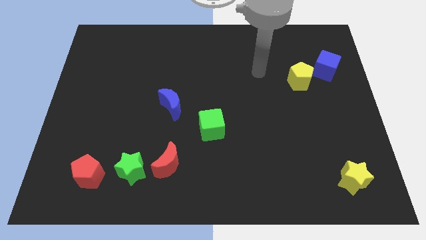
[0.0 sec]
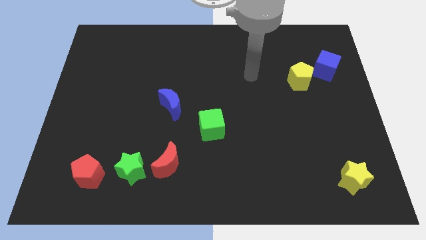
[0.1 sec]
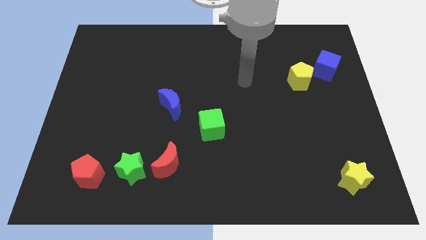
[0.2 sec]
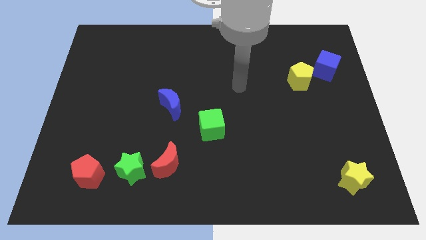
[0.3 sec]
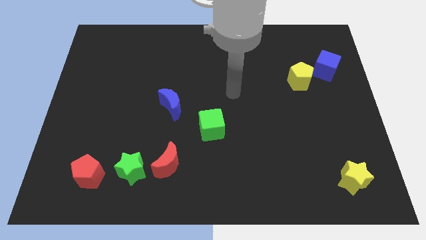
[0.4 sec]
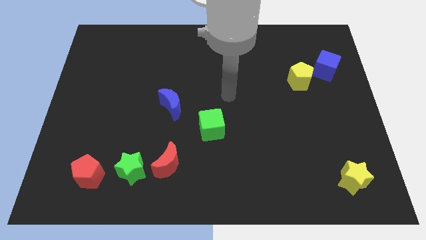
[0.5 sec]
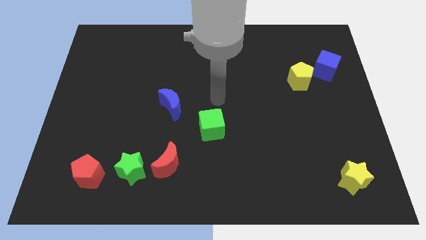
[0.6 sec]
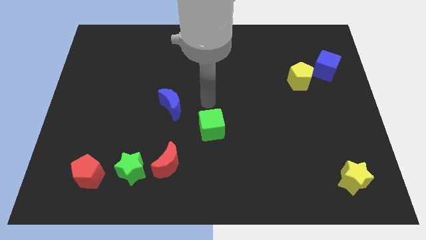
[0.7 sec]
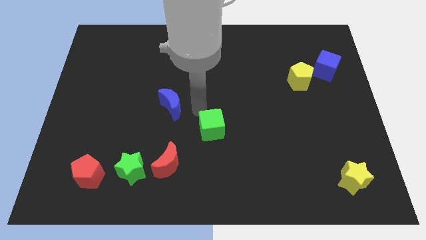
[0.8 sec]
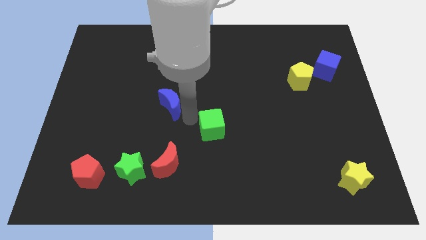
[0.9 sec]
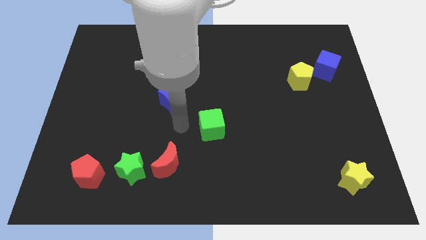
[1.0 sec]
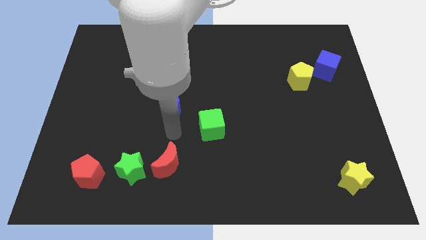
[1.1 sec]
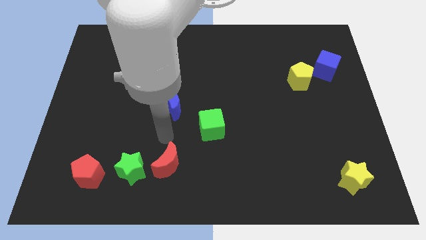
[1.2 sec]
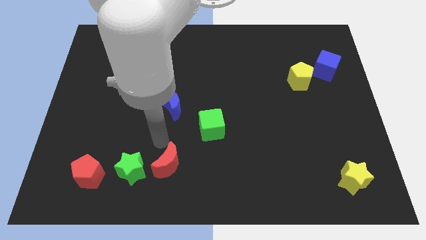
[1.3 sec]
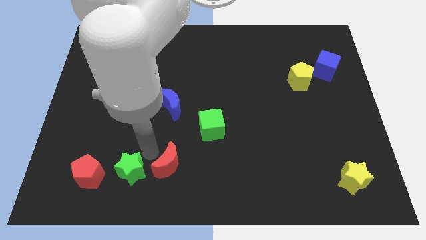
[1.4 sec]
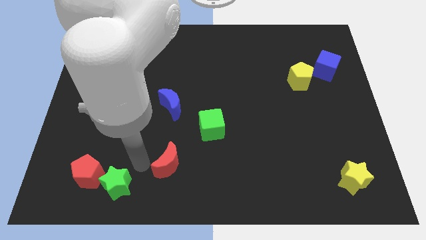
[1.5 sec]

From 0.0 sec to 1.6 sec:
pull the red moon apart from the green star

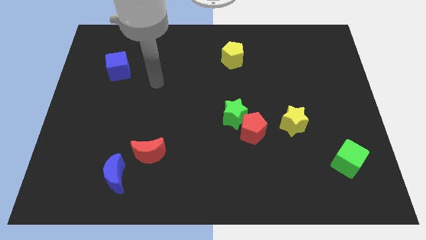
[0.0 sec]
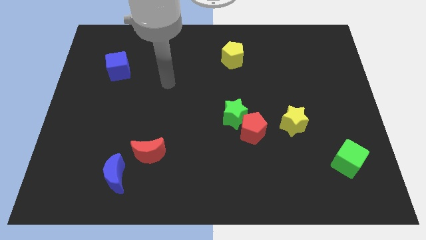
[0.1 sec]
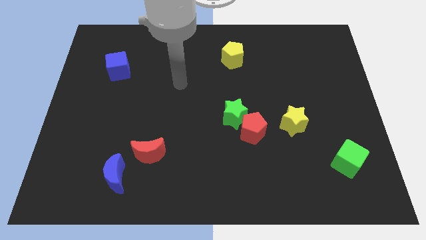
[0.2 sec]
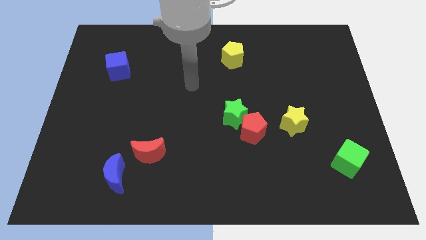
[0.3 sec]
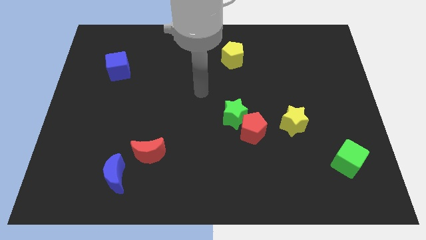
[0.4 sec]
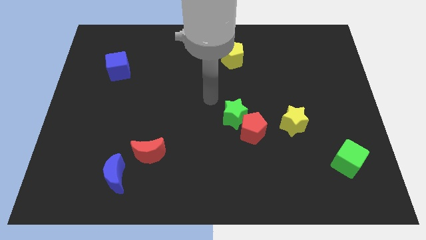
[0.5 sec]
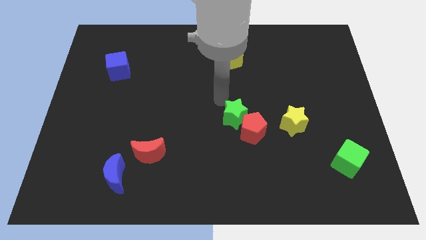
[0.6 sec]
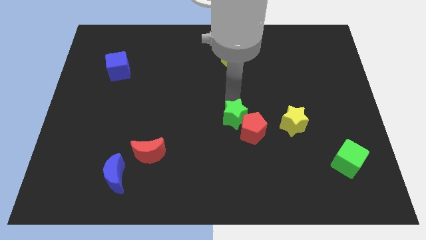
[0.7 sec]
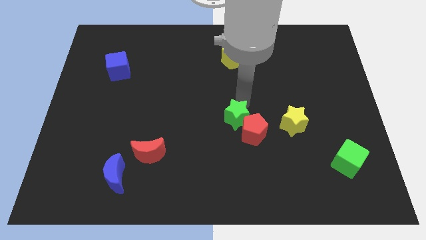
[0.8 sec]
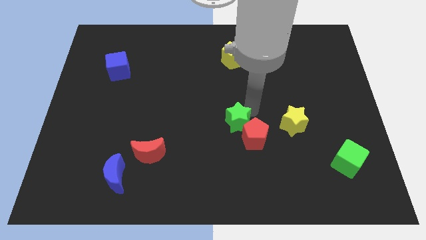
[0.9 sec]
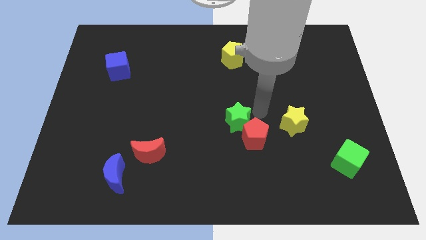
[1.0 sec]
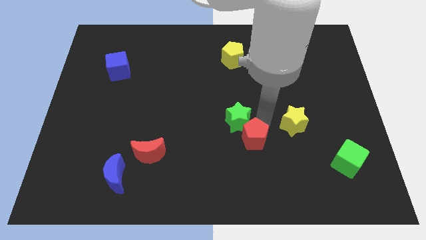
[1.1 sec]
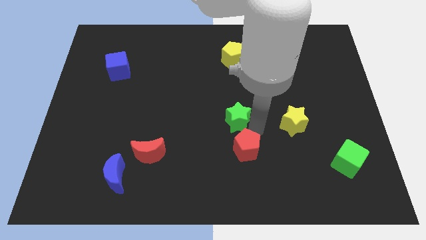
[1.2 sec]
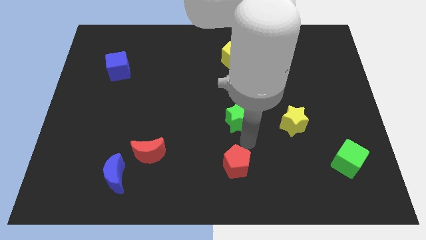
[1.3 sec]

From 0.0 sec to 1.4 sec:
move the green star away from the red pentagon

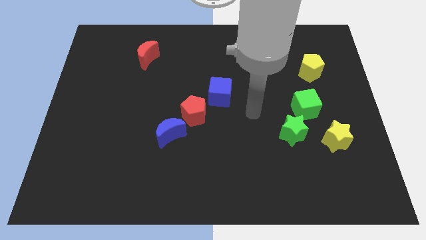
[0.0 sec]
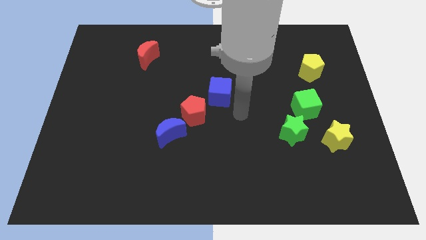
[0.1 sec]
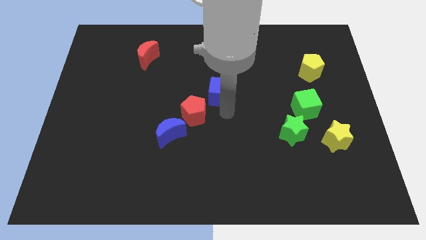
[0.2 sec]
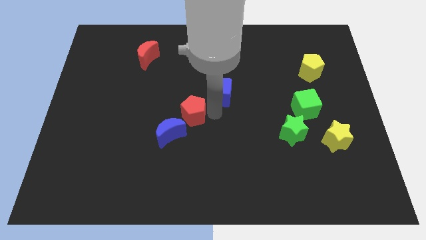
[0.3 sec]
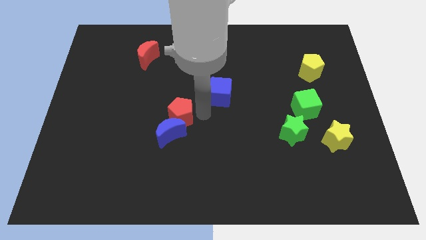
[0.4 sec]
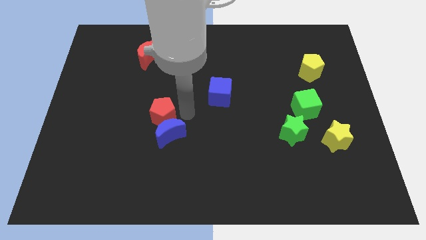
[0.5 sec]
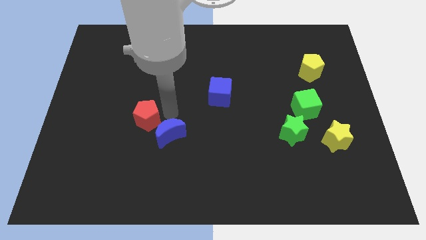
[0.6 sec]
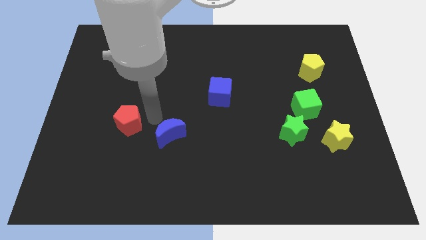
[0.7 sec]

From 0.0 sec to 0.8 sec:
separate the blue moon from the red pentagon

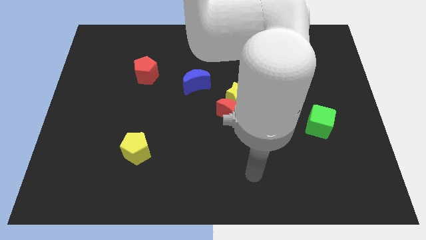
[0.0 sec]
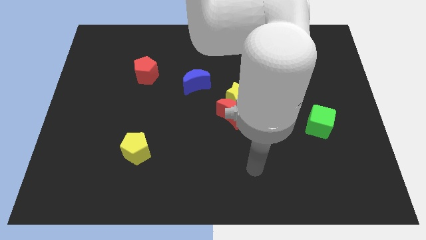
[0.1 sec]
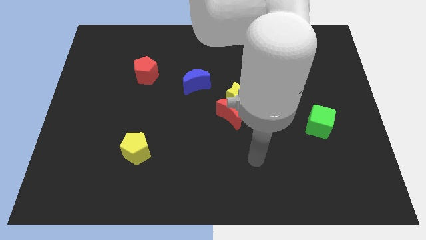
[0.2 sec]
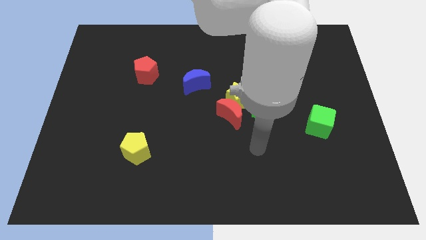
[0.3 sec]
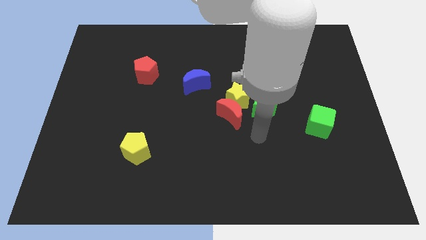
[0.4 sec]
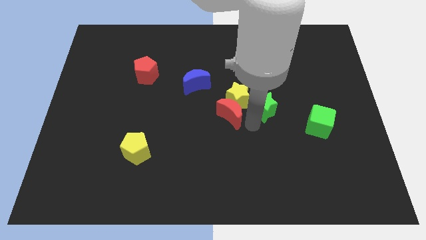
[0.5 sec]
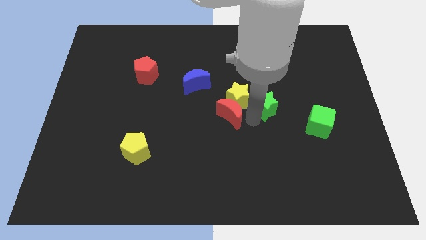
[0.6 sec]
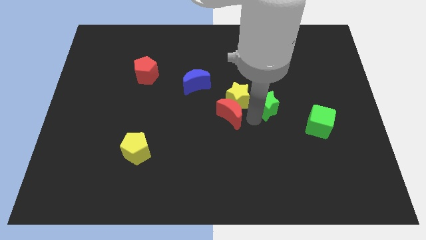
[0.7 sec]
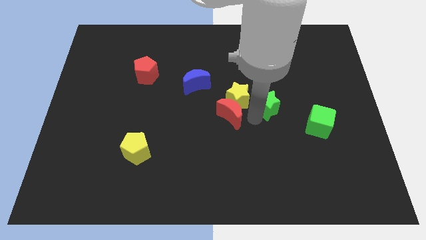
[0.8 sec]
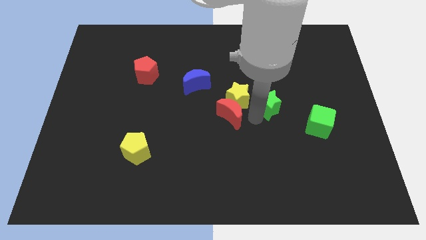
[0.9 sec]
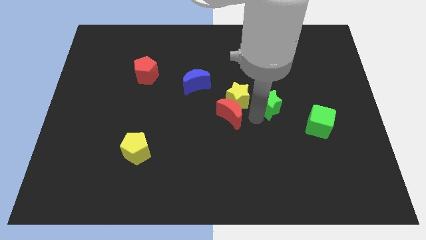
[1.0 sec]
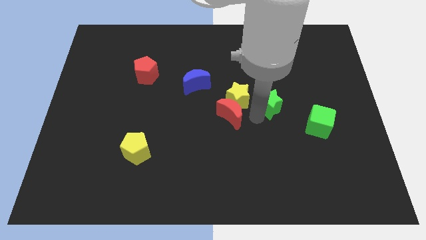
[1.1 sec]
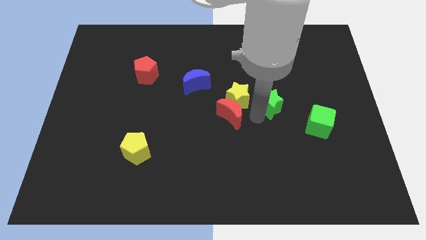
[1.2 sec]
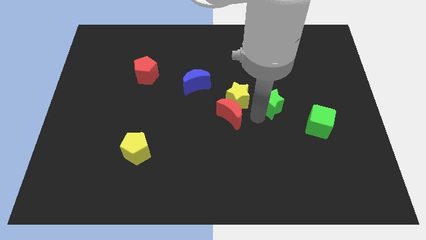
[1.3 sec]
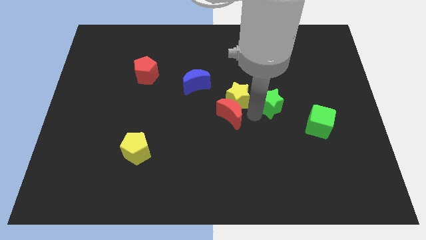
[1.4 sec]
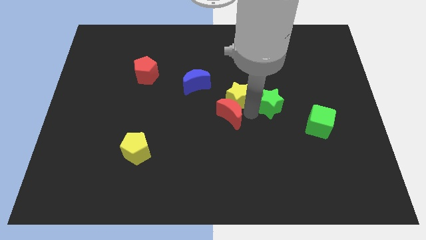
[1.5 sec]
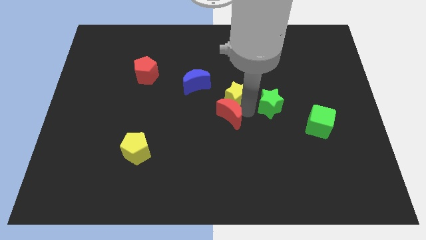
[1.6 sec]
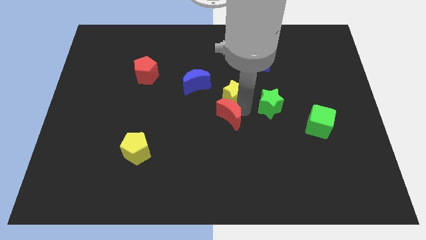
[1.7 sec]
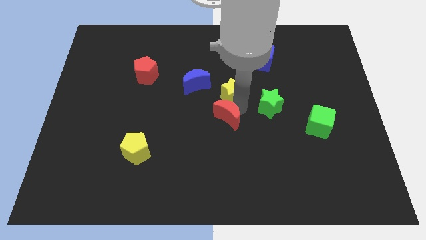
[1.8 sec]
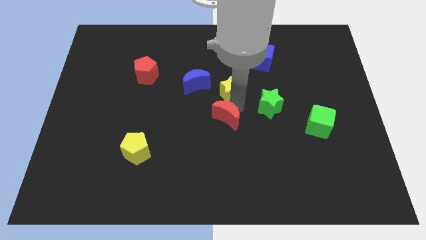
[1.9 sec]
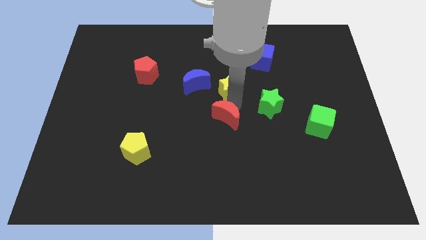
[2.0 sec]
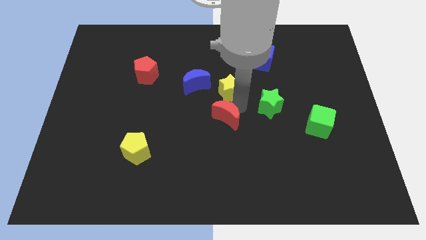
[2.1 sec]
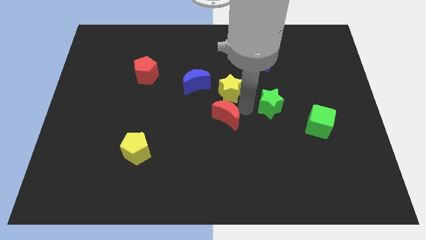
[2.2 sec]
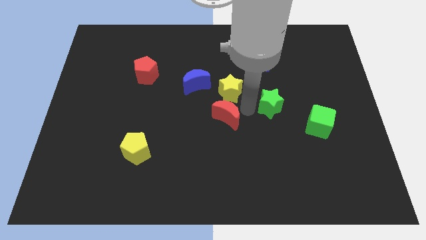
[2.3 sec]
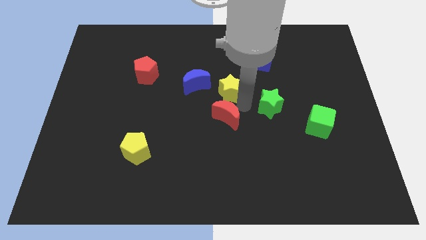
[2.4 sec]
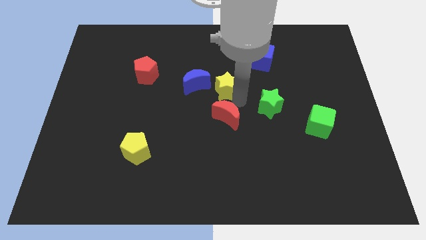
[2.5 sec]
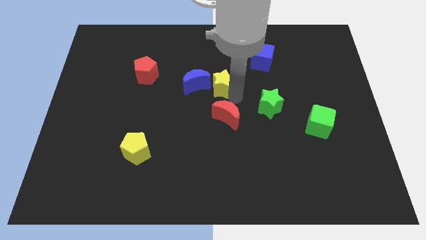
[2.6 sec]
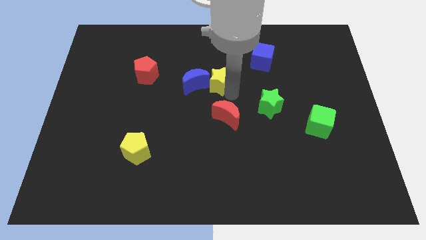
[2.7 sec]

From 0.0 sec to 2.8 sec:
move the yellow star away from the red moon and green star

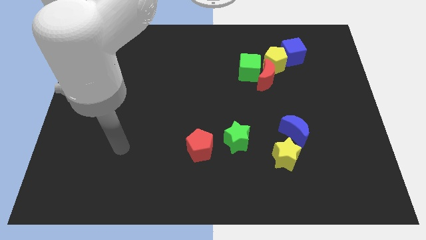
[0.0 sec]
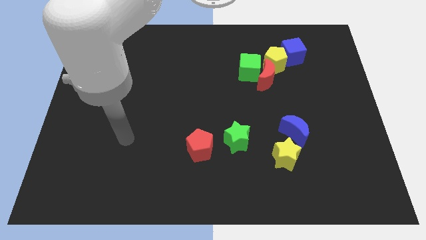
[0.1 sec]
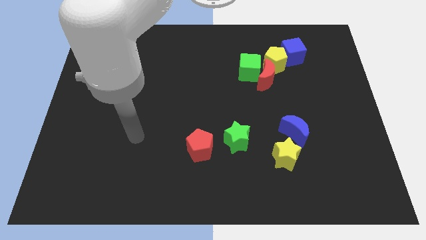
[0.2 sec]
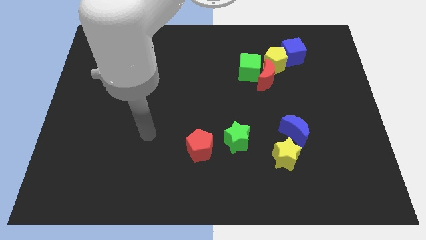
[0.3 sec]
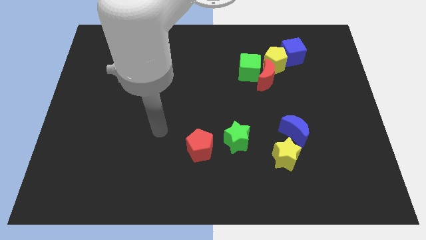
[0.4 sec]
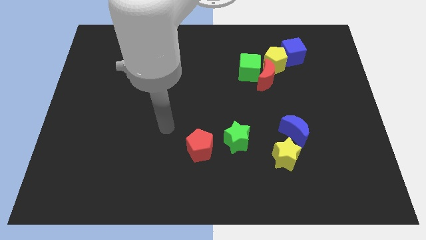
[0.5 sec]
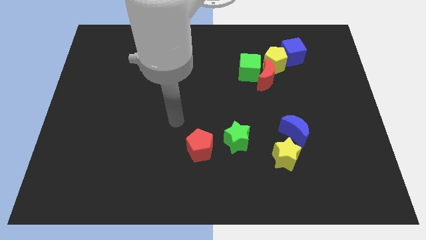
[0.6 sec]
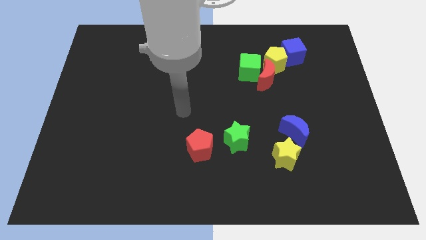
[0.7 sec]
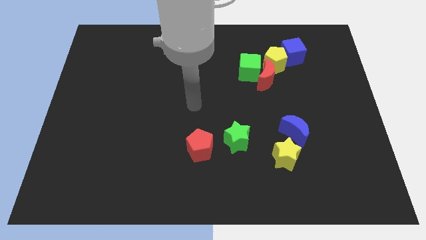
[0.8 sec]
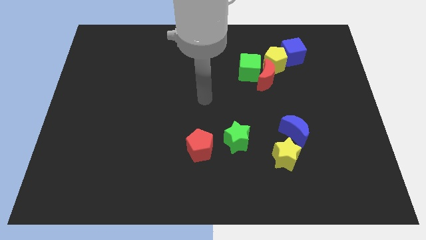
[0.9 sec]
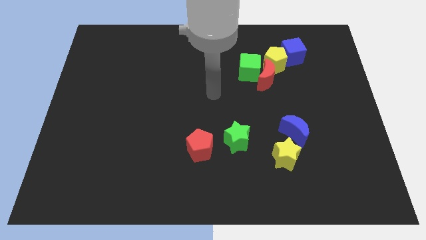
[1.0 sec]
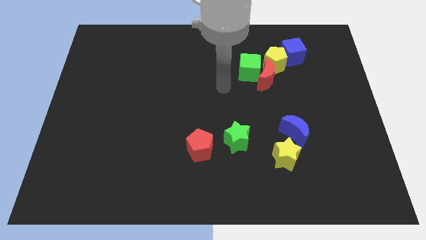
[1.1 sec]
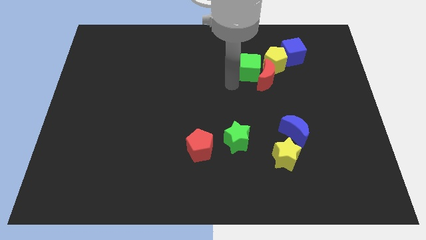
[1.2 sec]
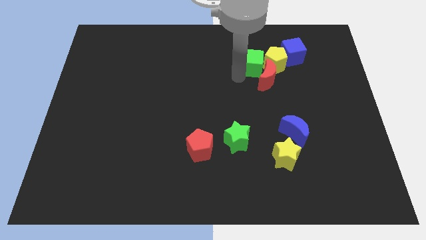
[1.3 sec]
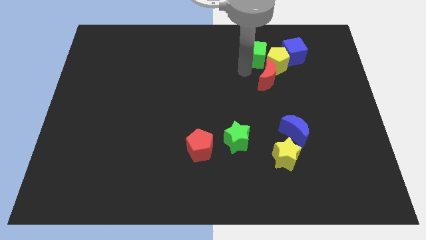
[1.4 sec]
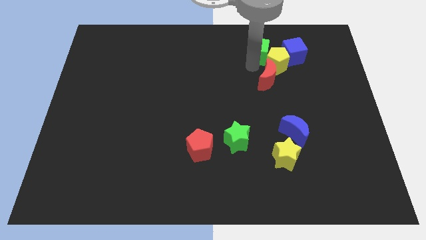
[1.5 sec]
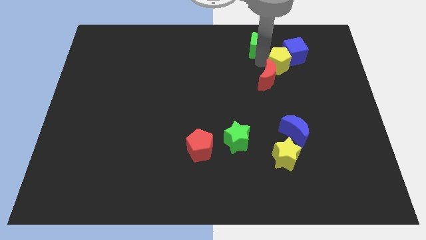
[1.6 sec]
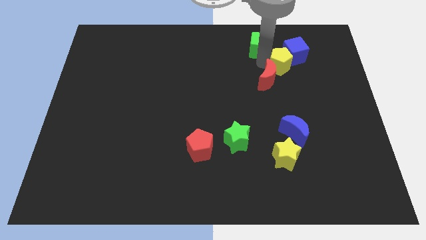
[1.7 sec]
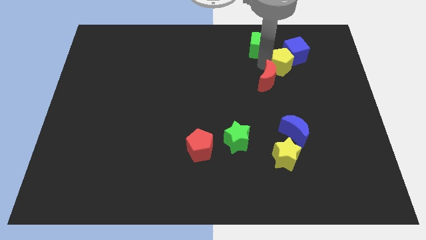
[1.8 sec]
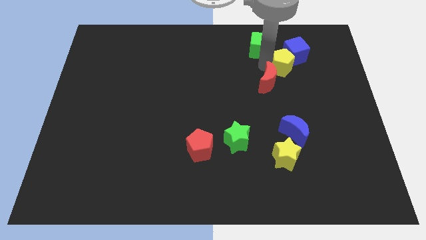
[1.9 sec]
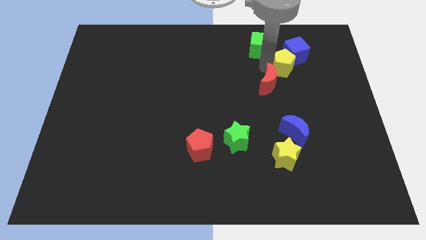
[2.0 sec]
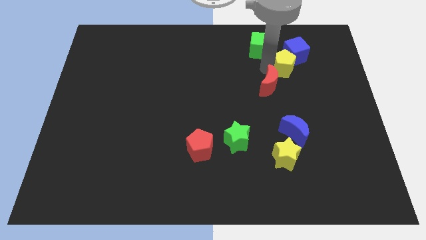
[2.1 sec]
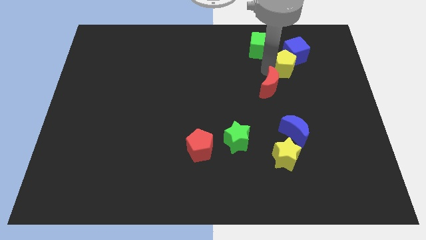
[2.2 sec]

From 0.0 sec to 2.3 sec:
pull the red moon apart from the green cube and yellow pentagon

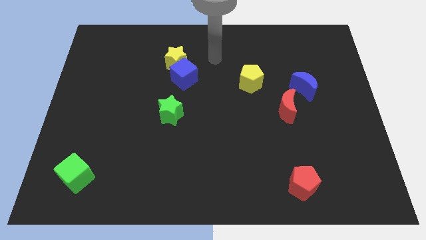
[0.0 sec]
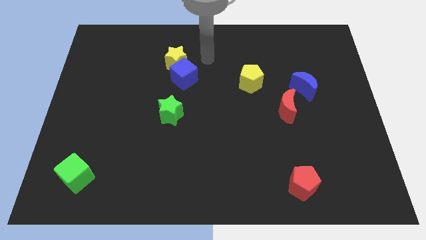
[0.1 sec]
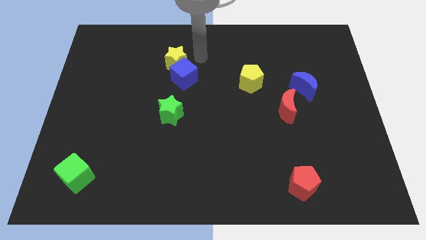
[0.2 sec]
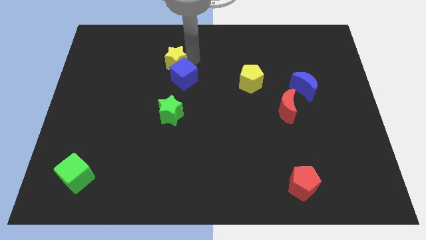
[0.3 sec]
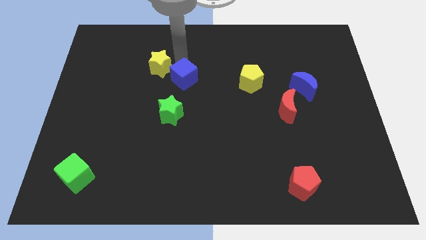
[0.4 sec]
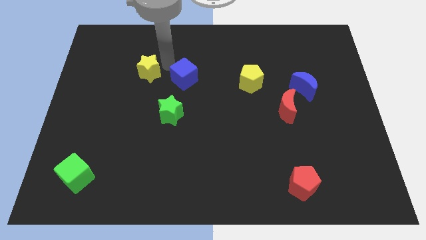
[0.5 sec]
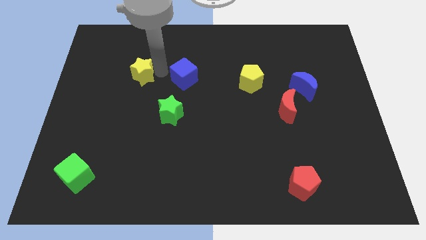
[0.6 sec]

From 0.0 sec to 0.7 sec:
pull the blue cube apart from the yellow star
